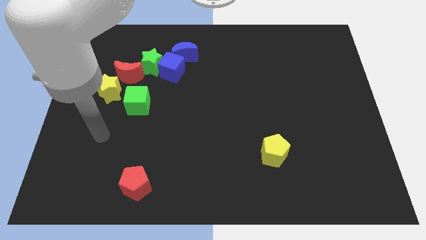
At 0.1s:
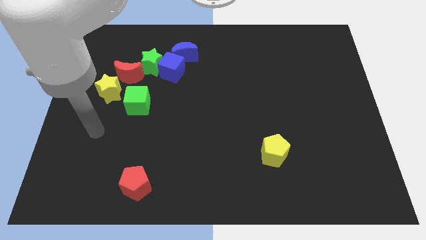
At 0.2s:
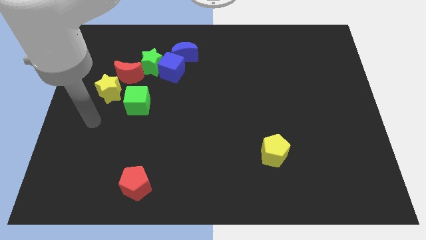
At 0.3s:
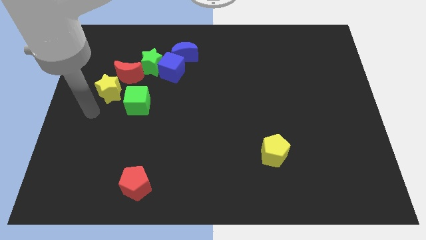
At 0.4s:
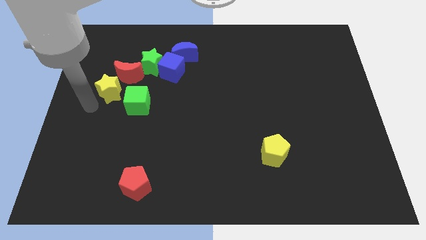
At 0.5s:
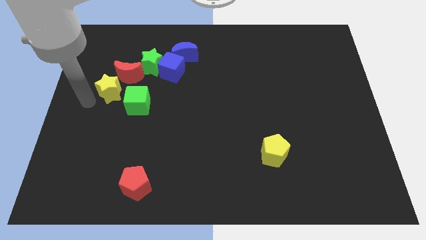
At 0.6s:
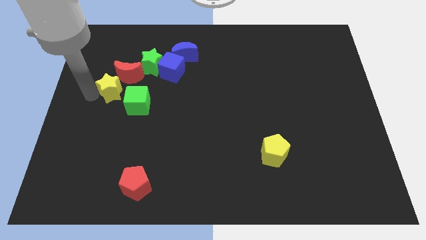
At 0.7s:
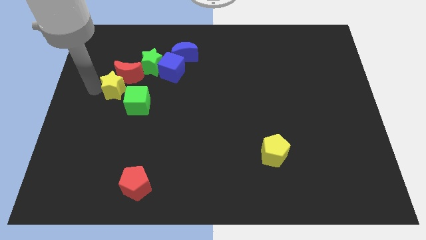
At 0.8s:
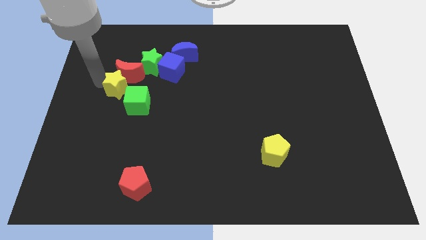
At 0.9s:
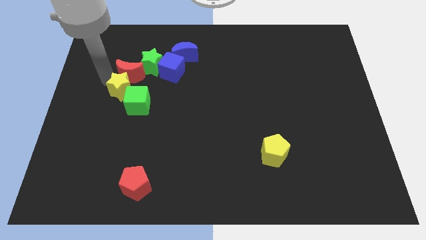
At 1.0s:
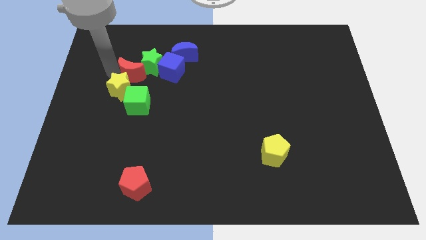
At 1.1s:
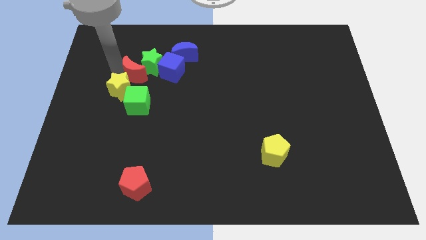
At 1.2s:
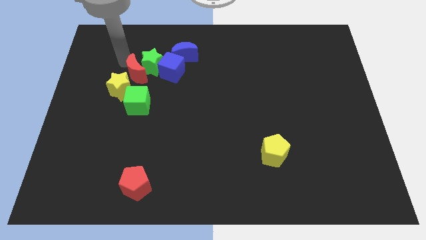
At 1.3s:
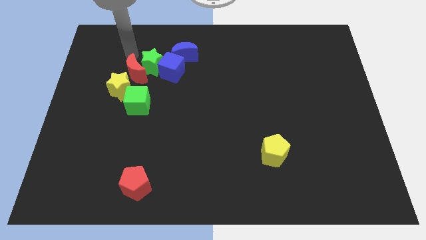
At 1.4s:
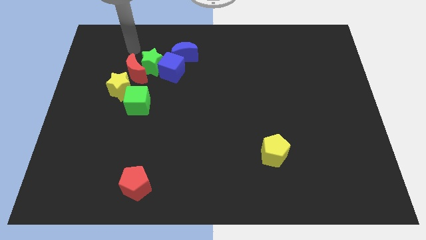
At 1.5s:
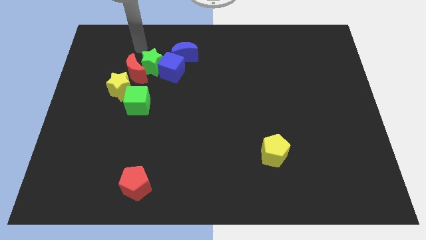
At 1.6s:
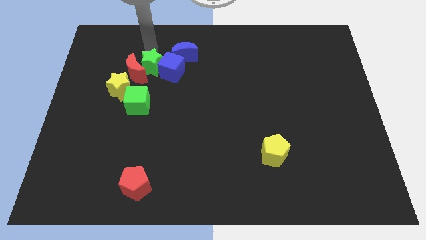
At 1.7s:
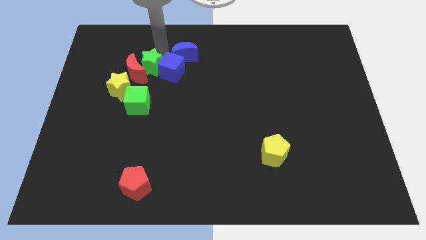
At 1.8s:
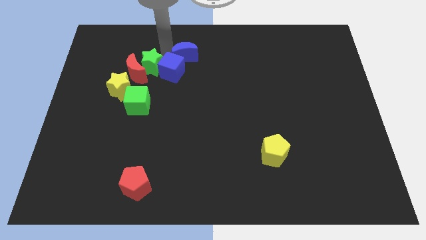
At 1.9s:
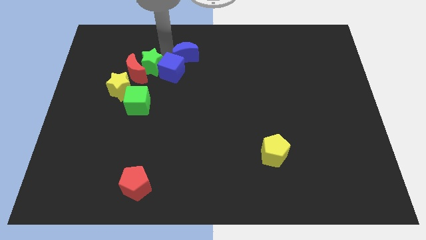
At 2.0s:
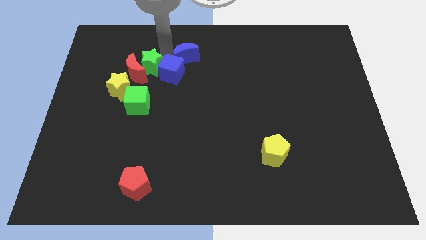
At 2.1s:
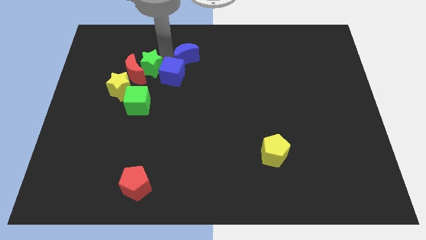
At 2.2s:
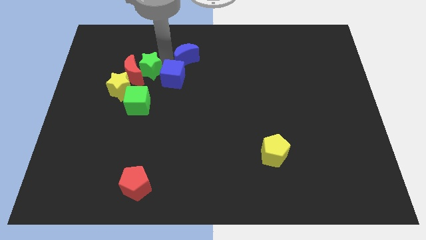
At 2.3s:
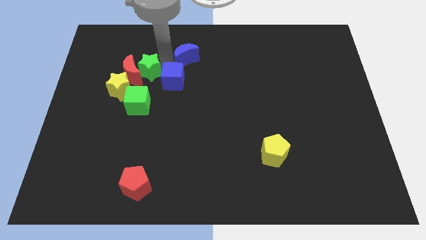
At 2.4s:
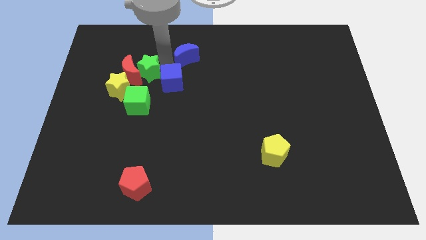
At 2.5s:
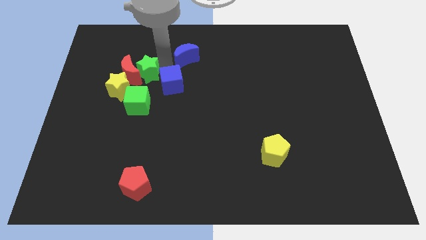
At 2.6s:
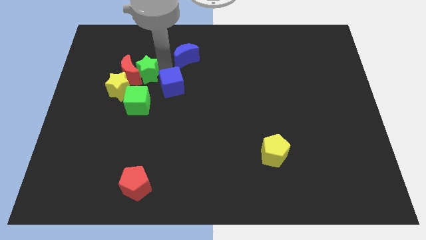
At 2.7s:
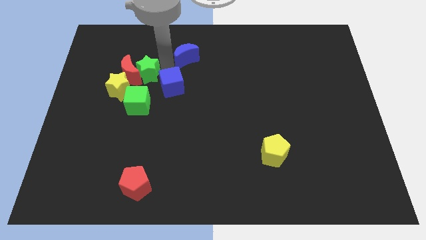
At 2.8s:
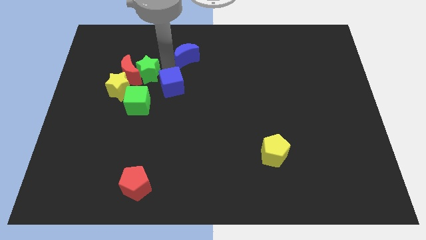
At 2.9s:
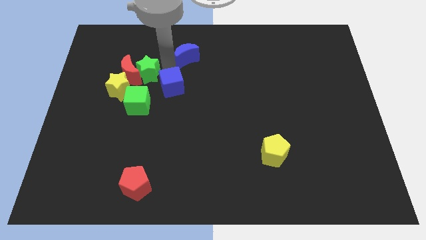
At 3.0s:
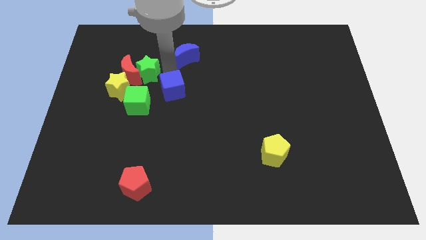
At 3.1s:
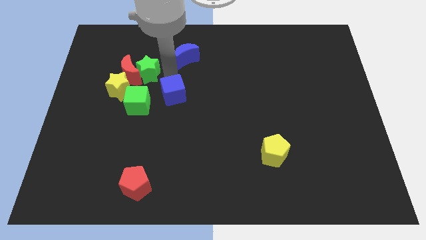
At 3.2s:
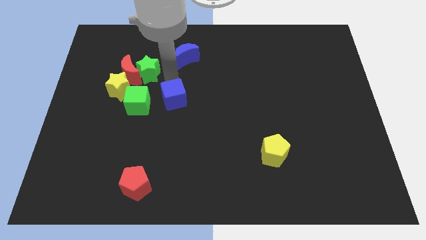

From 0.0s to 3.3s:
separate the blue cube from the green star and blue moon

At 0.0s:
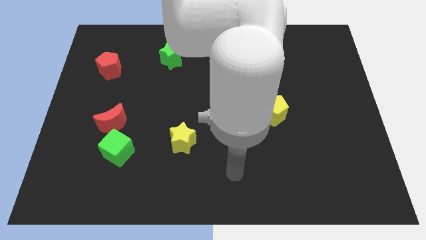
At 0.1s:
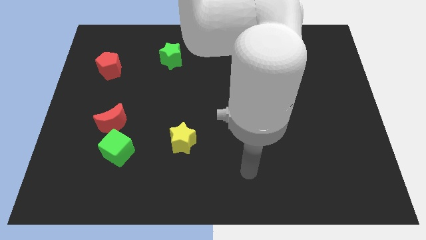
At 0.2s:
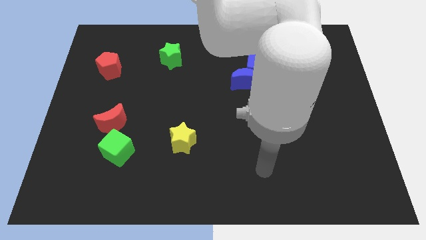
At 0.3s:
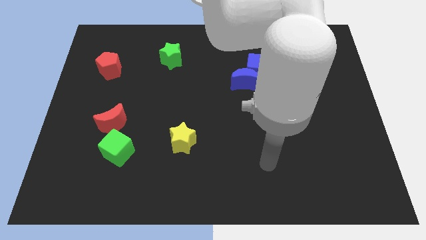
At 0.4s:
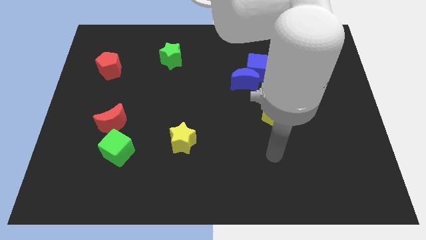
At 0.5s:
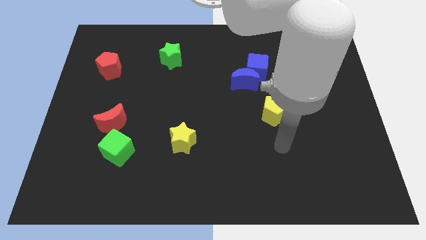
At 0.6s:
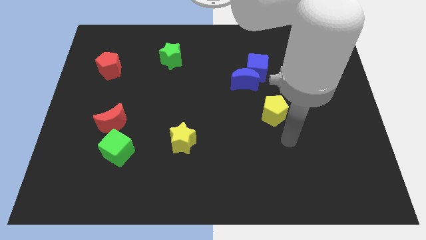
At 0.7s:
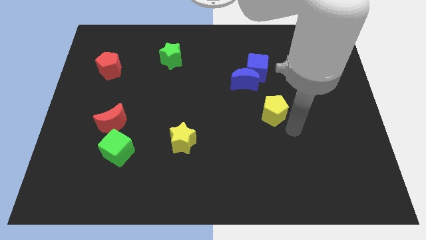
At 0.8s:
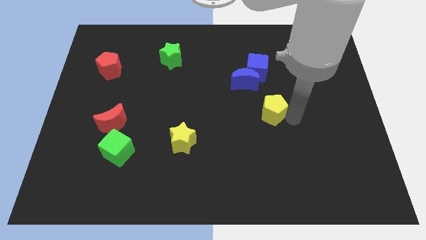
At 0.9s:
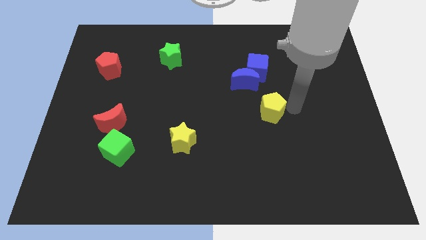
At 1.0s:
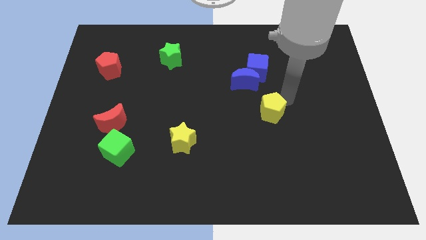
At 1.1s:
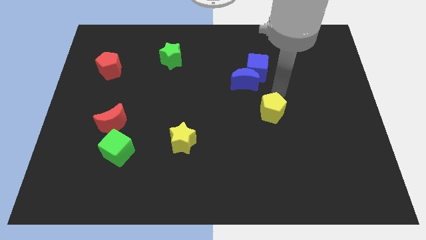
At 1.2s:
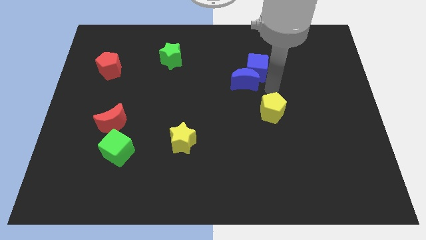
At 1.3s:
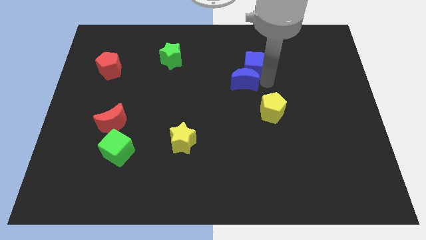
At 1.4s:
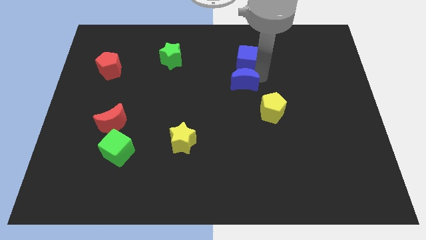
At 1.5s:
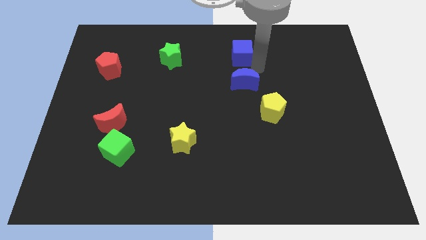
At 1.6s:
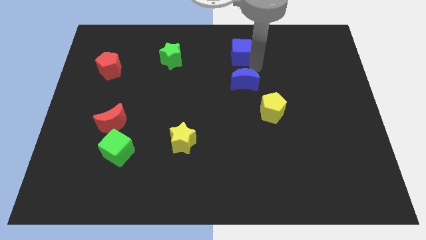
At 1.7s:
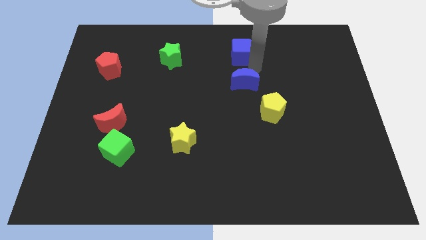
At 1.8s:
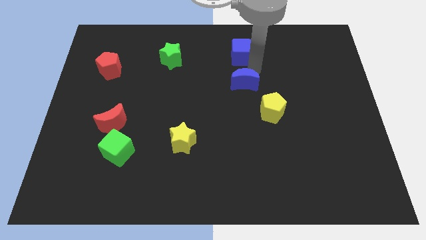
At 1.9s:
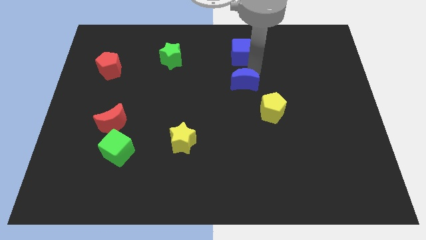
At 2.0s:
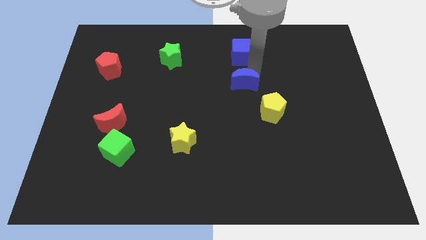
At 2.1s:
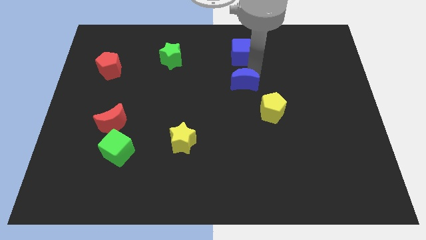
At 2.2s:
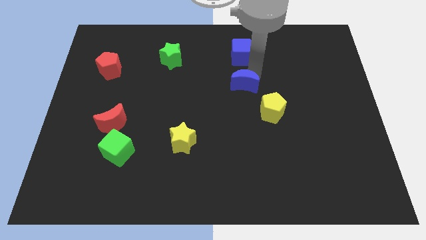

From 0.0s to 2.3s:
move the blue moon away from the blue cube

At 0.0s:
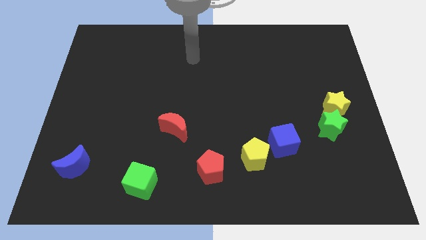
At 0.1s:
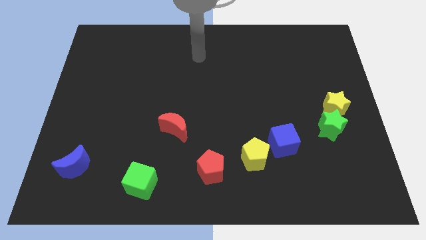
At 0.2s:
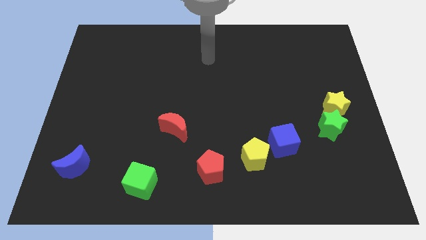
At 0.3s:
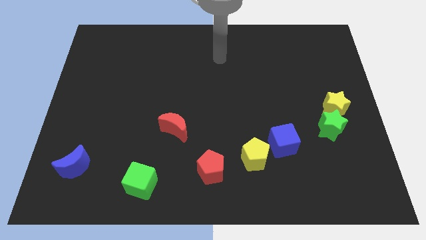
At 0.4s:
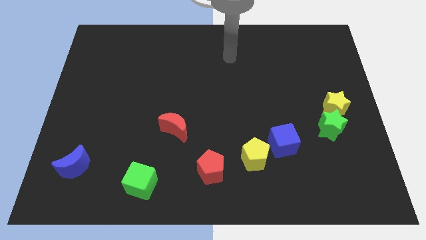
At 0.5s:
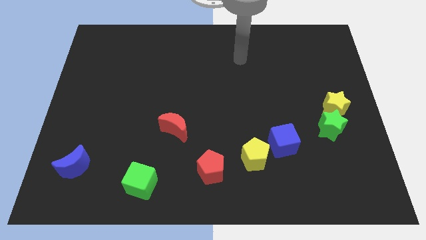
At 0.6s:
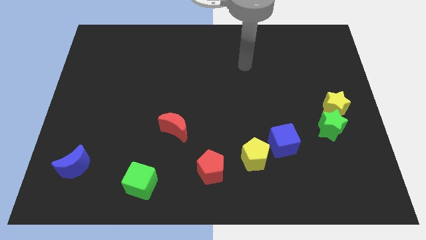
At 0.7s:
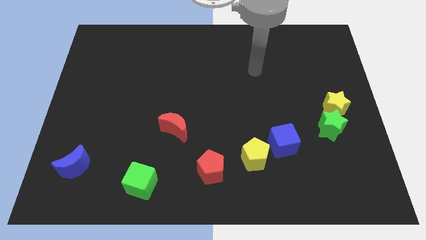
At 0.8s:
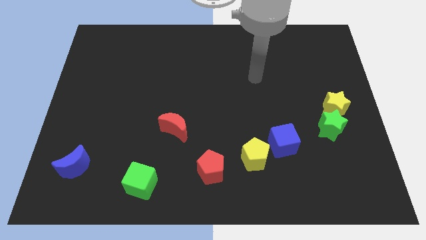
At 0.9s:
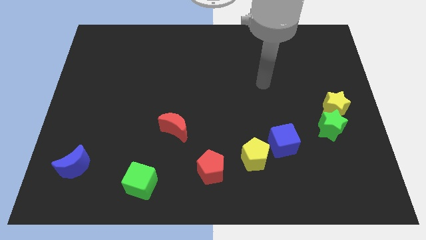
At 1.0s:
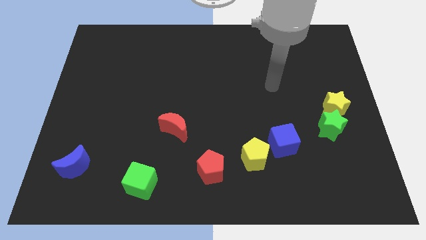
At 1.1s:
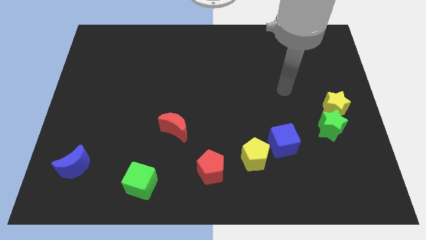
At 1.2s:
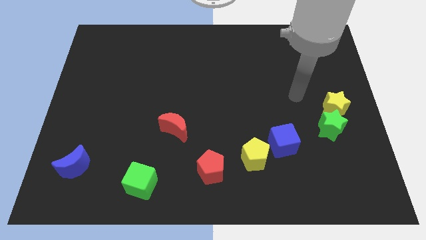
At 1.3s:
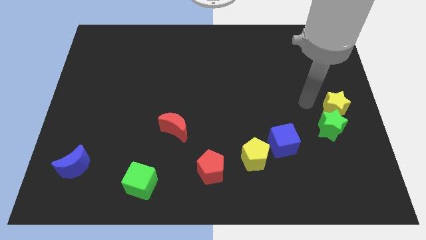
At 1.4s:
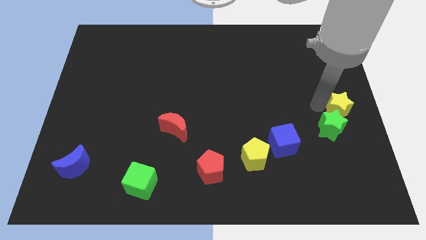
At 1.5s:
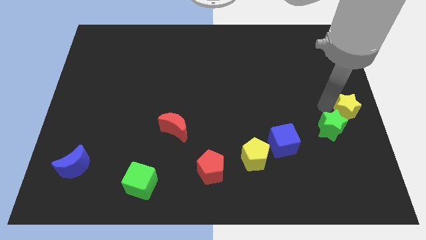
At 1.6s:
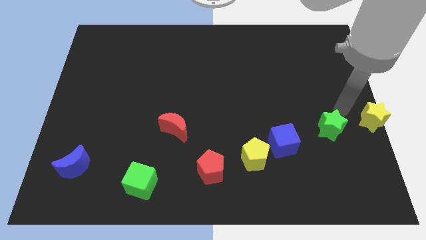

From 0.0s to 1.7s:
pull the green star apart from the yellow star

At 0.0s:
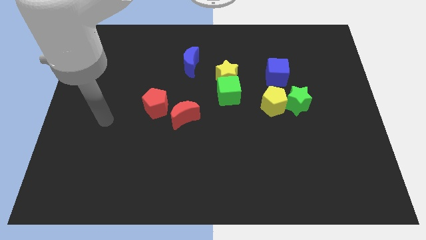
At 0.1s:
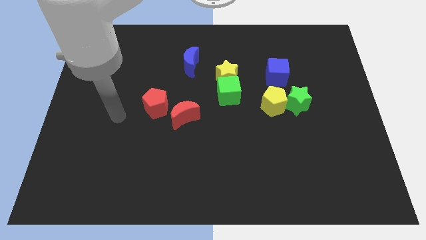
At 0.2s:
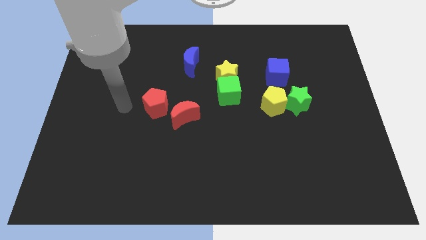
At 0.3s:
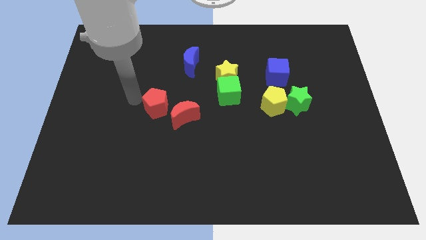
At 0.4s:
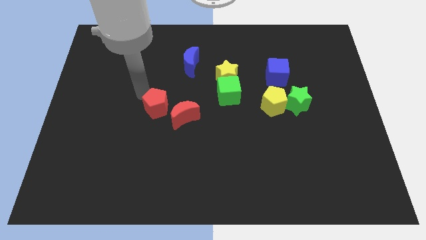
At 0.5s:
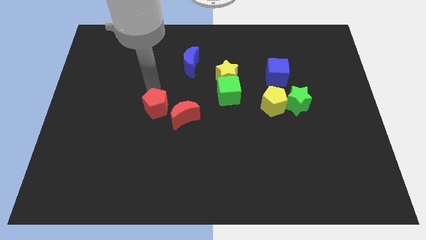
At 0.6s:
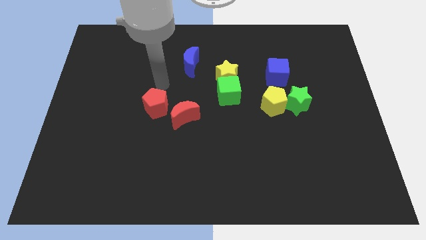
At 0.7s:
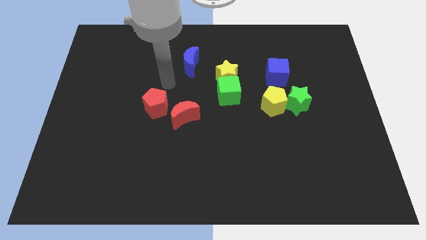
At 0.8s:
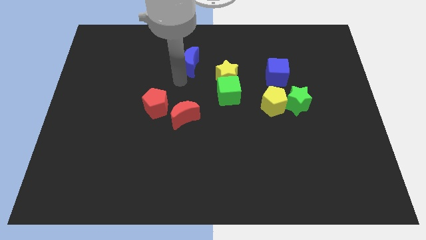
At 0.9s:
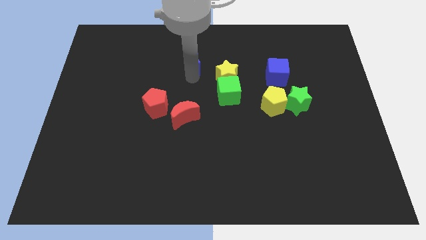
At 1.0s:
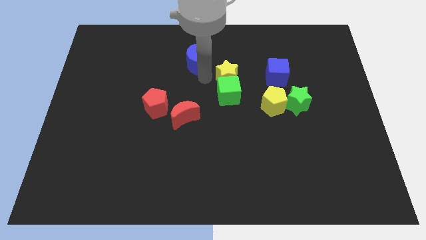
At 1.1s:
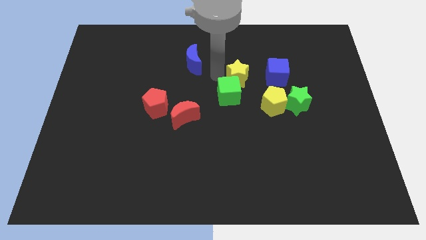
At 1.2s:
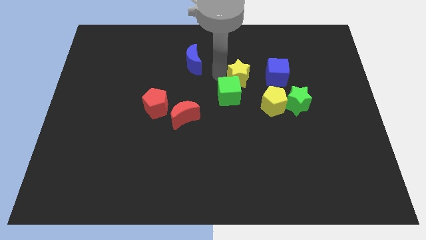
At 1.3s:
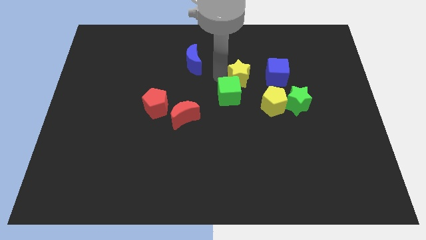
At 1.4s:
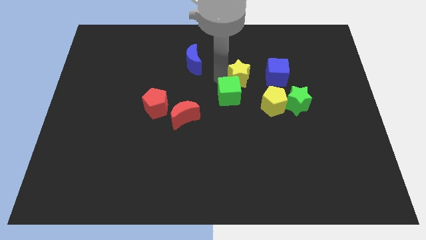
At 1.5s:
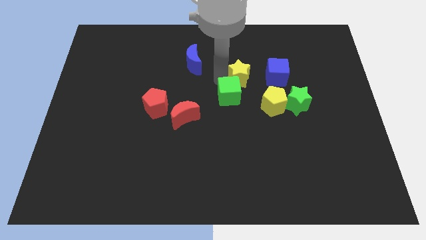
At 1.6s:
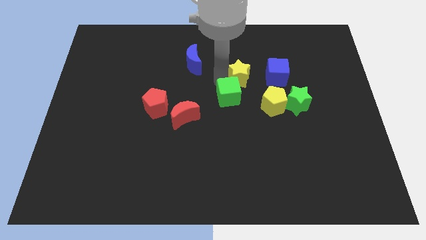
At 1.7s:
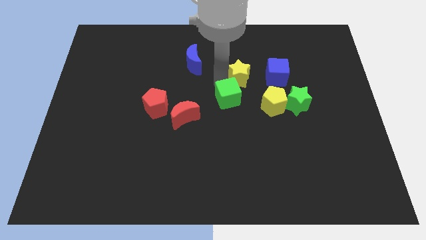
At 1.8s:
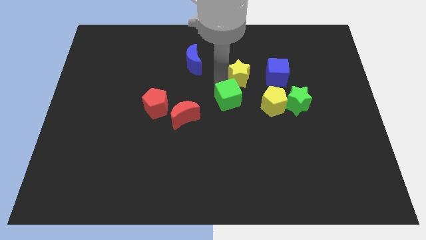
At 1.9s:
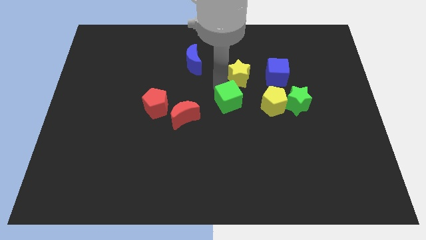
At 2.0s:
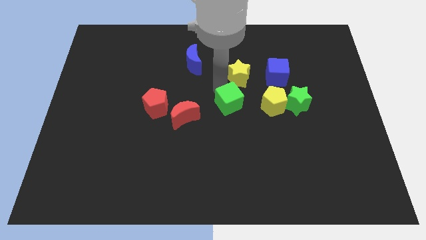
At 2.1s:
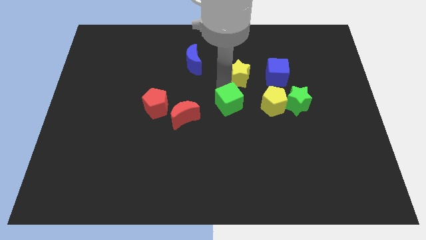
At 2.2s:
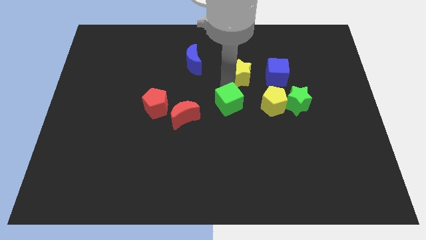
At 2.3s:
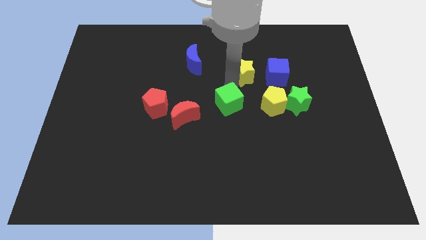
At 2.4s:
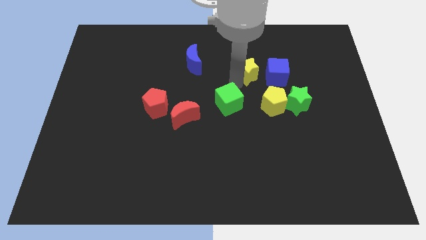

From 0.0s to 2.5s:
separate the green cube from the yellow star
